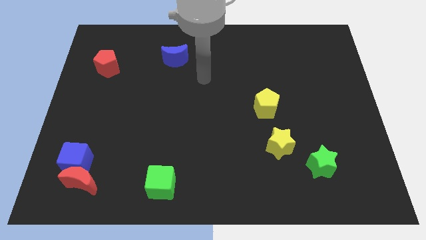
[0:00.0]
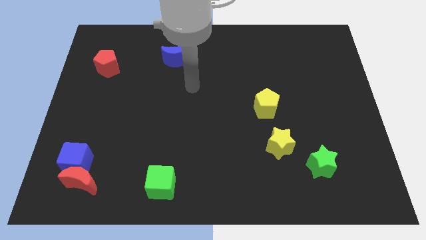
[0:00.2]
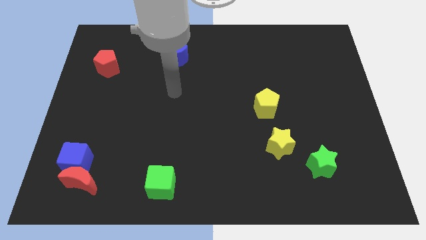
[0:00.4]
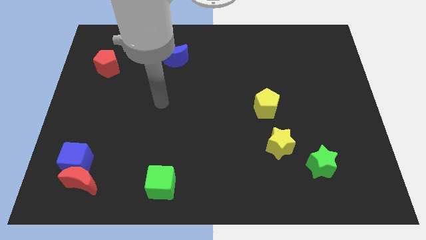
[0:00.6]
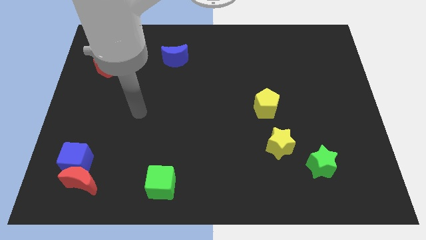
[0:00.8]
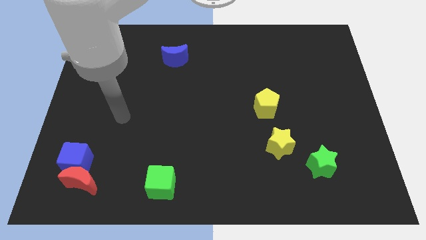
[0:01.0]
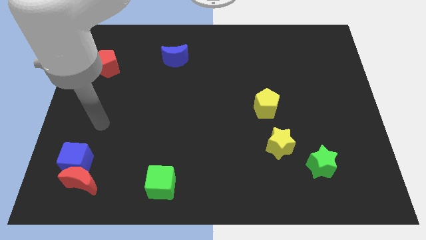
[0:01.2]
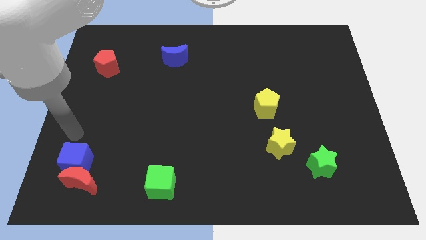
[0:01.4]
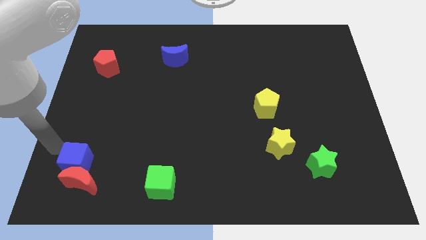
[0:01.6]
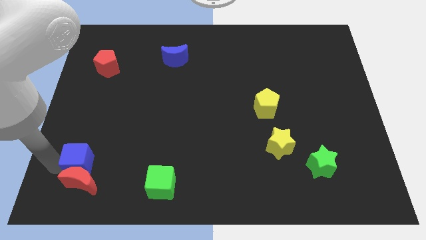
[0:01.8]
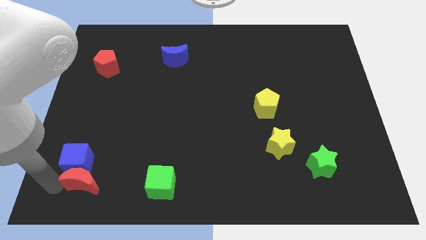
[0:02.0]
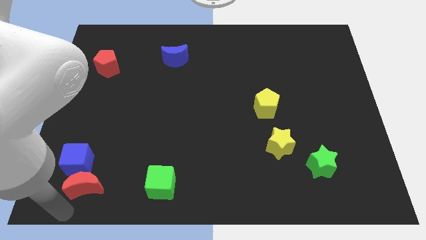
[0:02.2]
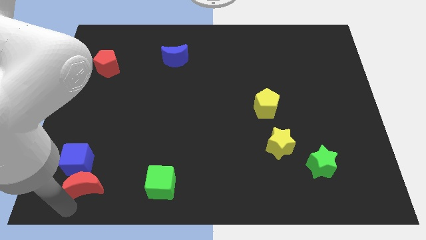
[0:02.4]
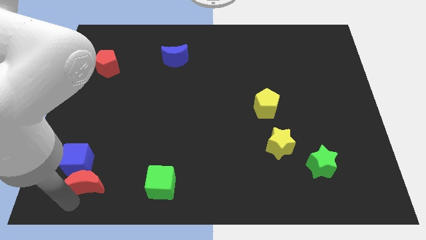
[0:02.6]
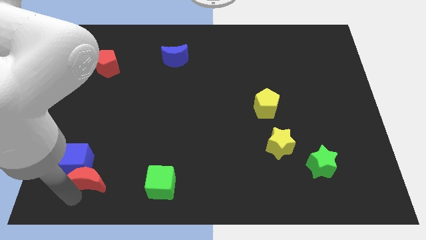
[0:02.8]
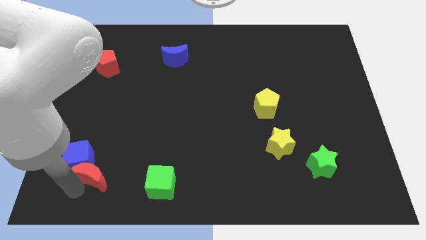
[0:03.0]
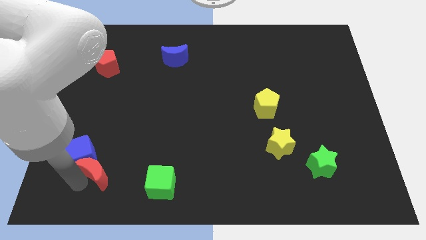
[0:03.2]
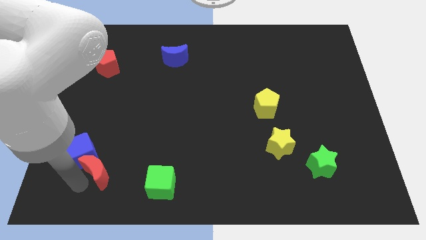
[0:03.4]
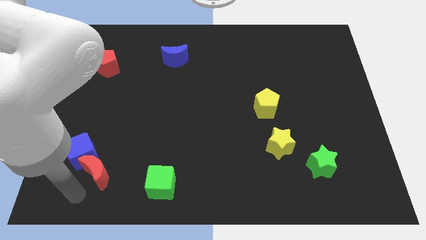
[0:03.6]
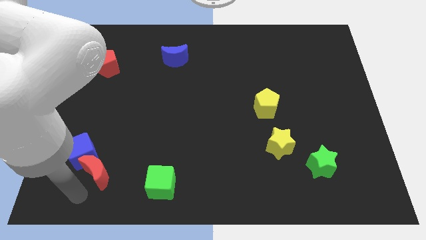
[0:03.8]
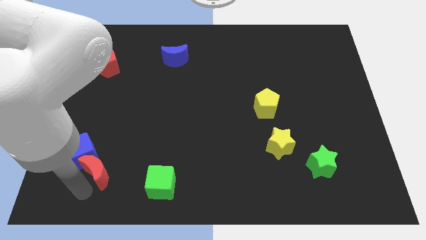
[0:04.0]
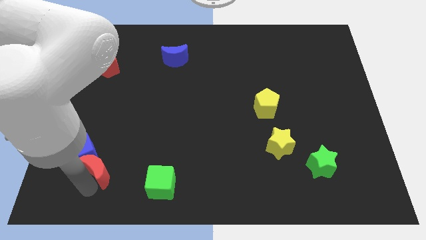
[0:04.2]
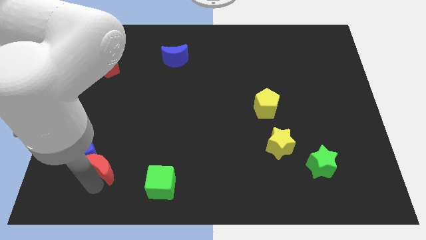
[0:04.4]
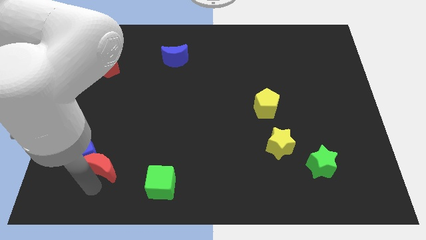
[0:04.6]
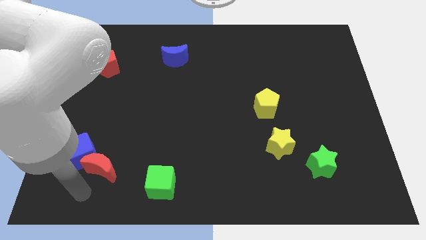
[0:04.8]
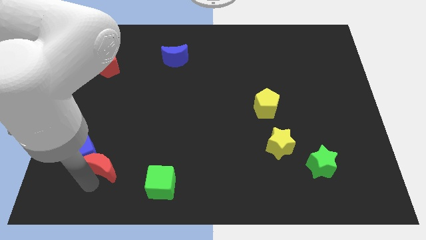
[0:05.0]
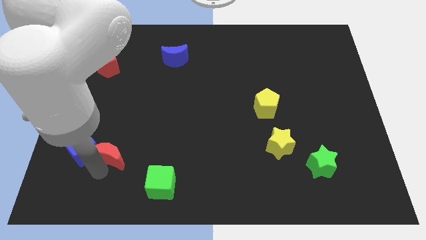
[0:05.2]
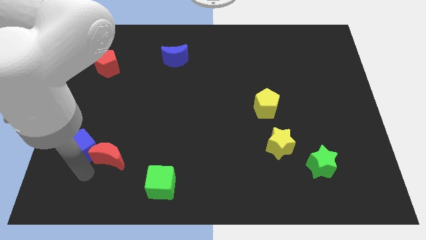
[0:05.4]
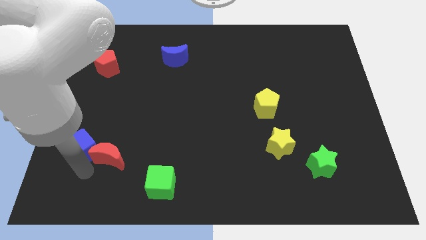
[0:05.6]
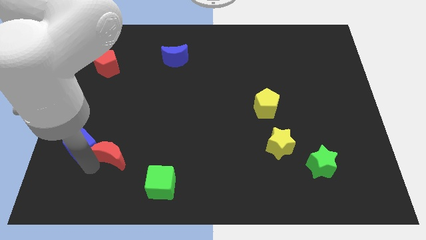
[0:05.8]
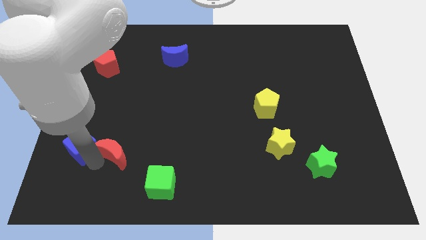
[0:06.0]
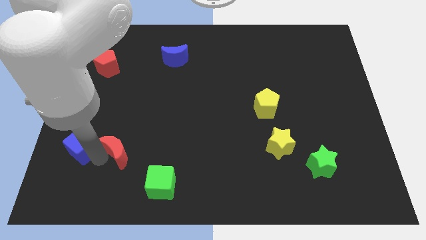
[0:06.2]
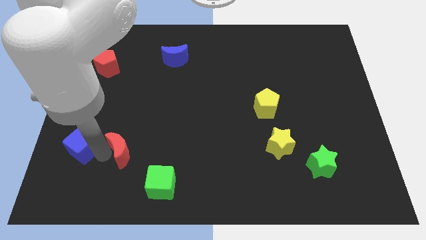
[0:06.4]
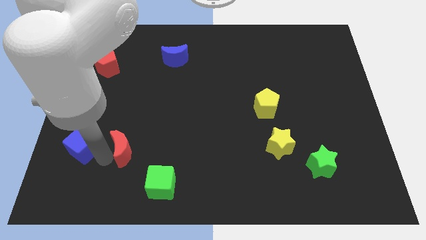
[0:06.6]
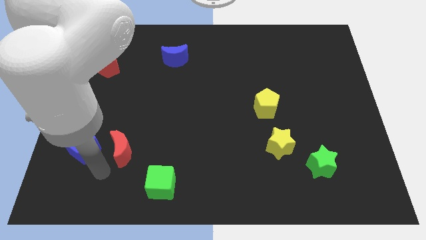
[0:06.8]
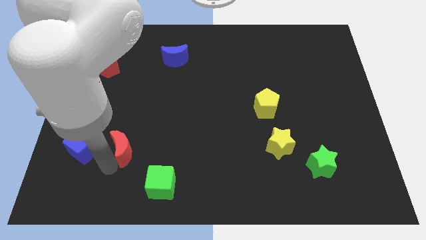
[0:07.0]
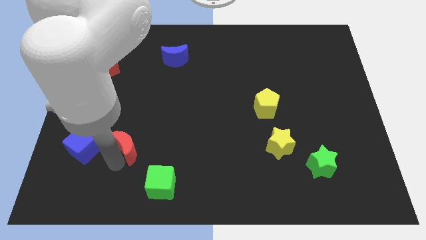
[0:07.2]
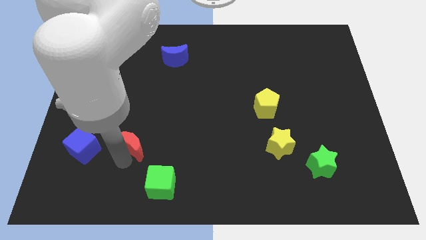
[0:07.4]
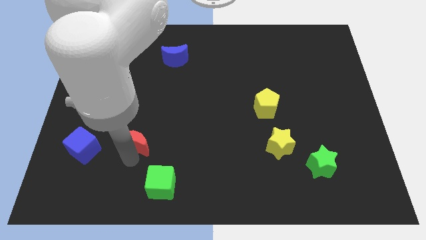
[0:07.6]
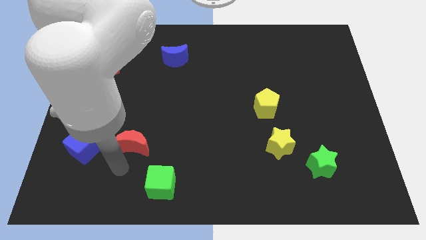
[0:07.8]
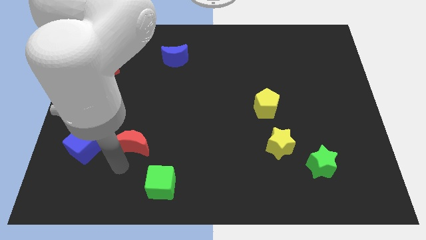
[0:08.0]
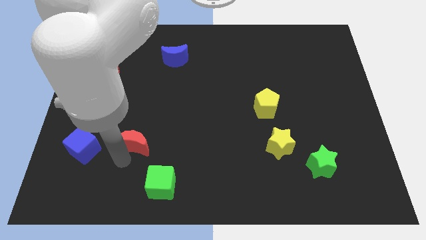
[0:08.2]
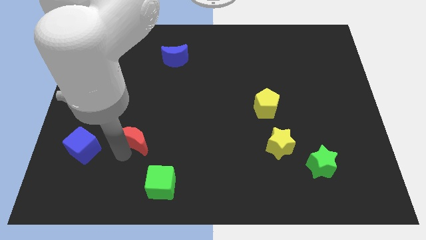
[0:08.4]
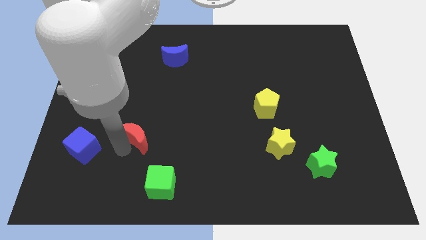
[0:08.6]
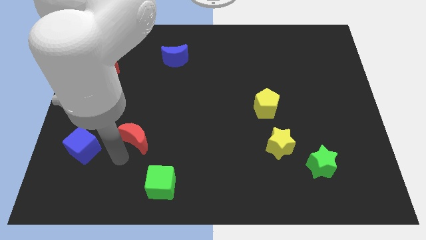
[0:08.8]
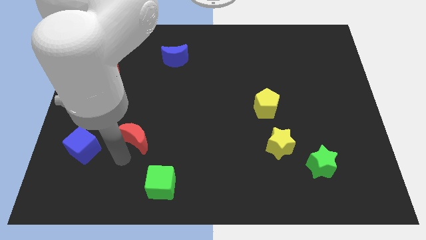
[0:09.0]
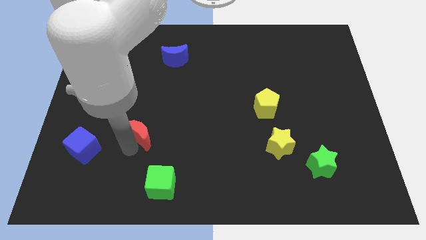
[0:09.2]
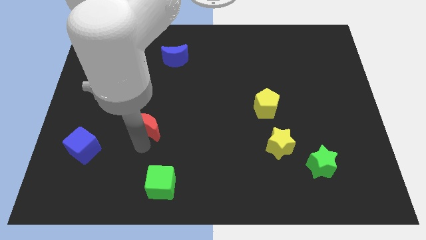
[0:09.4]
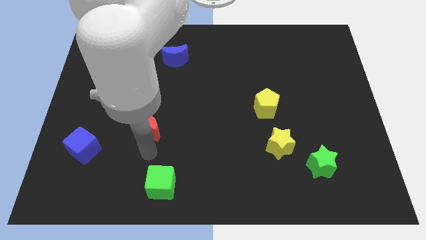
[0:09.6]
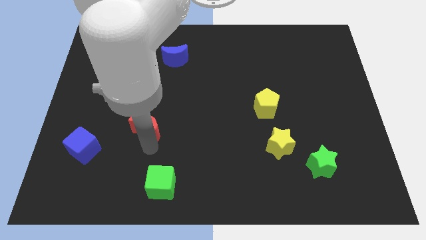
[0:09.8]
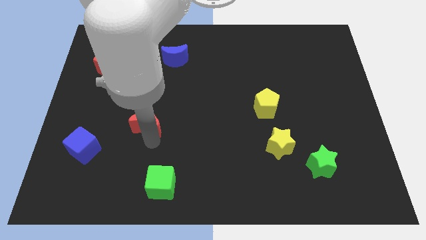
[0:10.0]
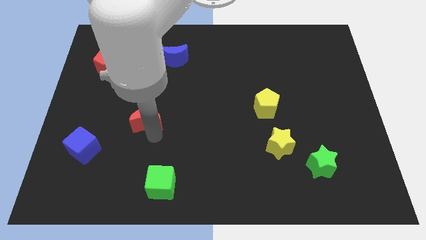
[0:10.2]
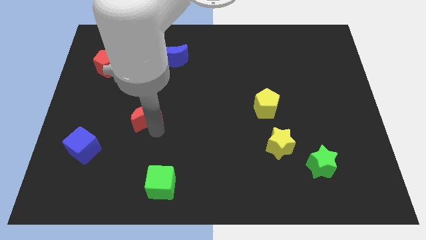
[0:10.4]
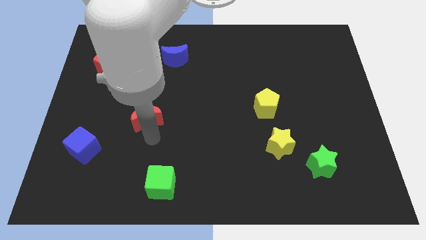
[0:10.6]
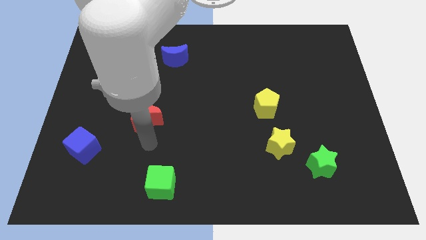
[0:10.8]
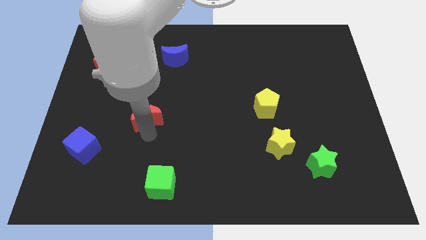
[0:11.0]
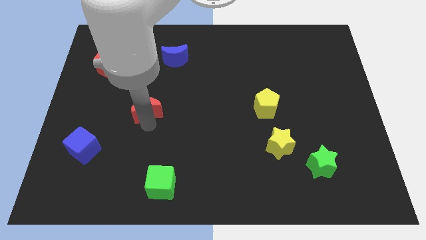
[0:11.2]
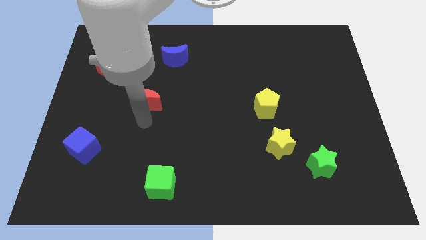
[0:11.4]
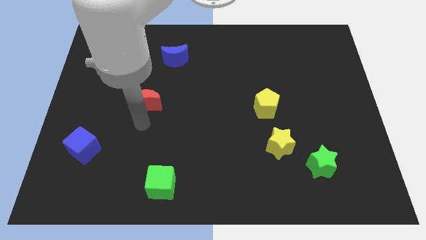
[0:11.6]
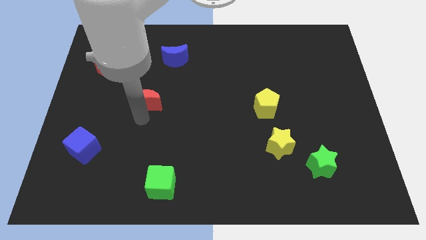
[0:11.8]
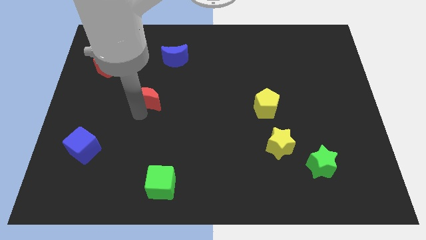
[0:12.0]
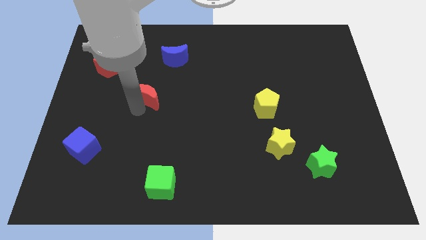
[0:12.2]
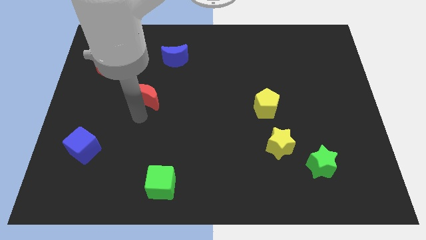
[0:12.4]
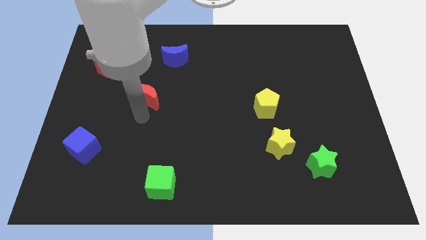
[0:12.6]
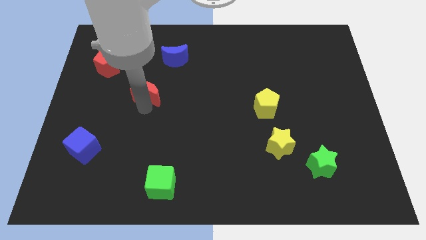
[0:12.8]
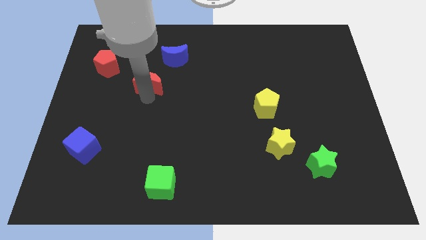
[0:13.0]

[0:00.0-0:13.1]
put the red moon diagonally down and to the left of the blue moon

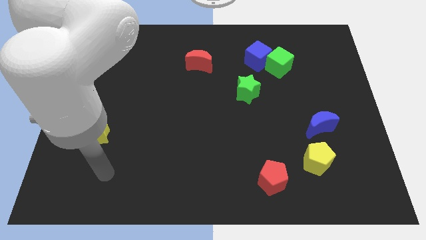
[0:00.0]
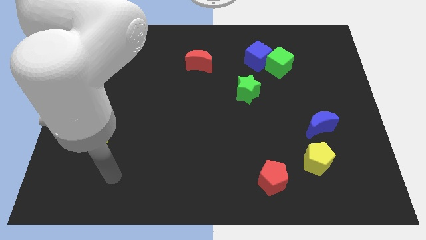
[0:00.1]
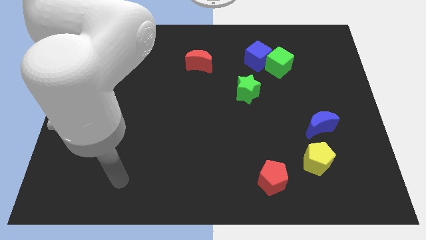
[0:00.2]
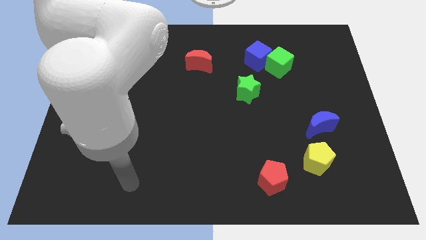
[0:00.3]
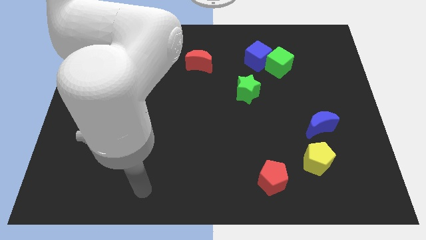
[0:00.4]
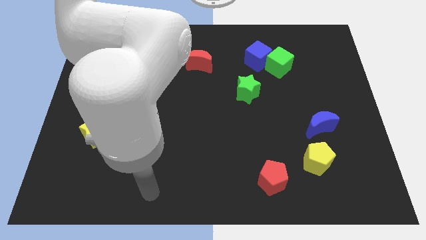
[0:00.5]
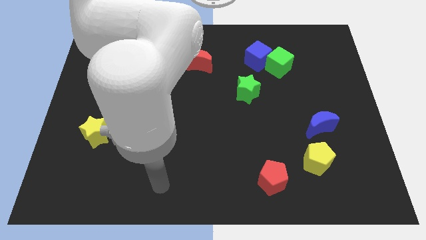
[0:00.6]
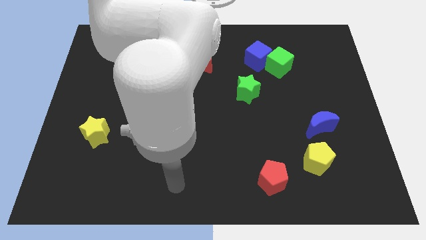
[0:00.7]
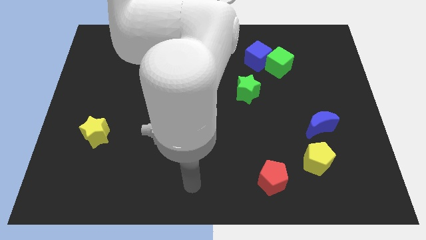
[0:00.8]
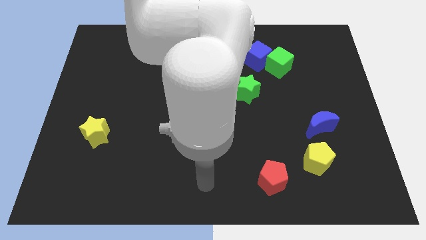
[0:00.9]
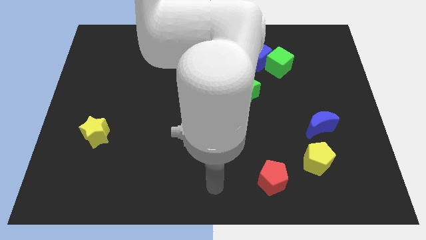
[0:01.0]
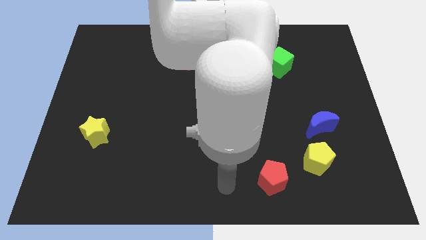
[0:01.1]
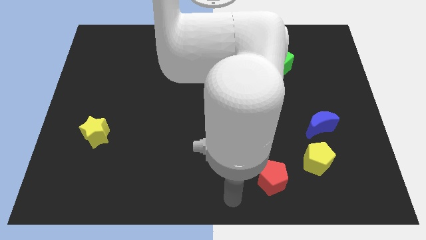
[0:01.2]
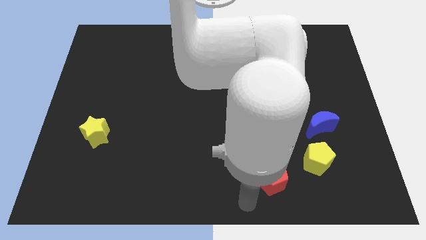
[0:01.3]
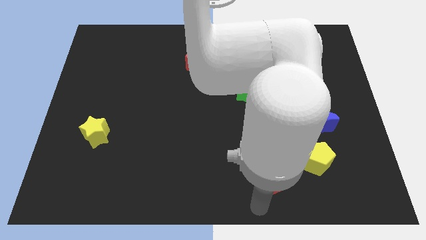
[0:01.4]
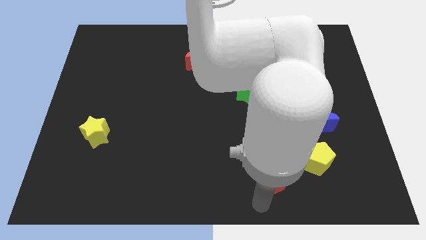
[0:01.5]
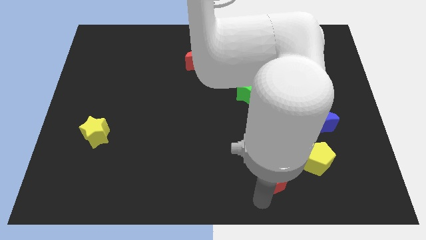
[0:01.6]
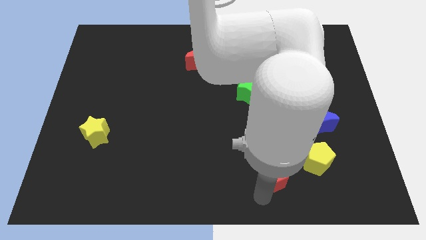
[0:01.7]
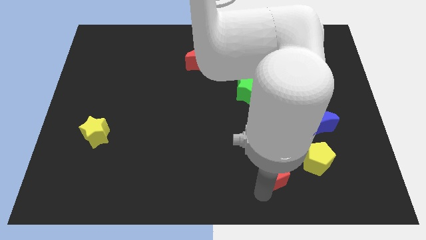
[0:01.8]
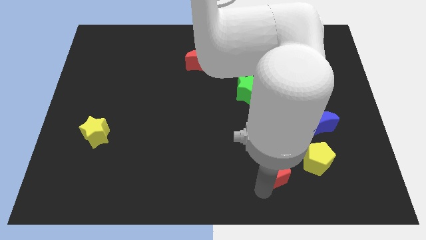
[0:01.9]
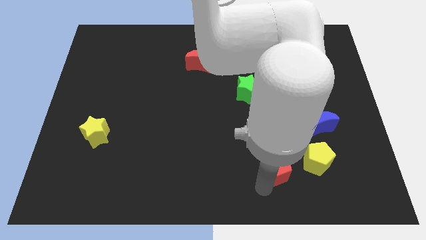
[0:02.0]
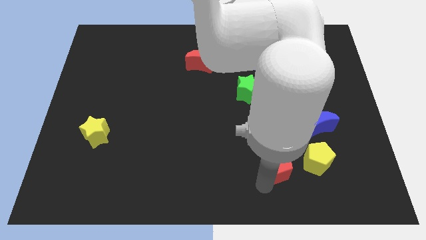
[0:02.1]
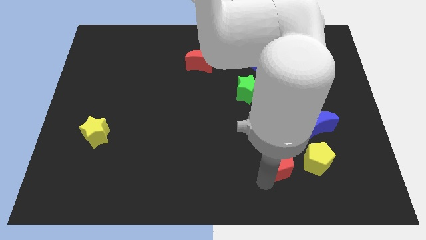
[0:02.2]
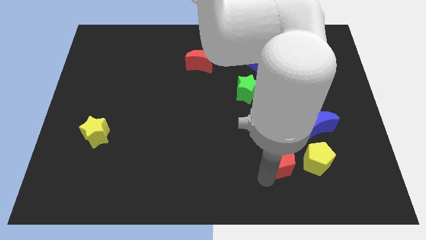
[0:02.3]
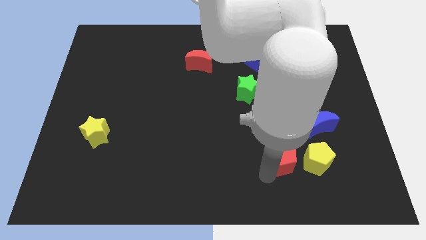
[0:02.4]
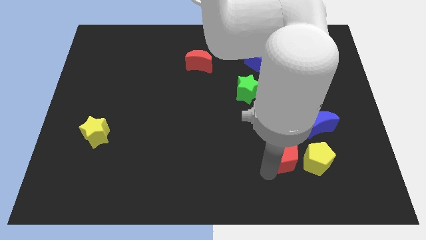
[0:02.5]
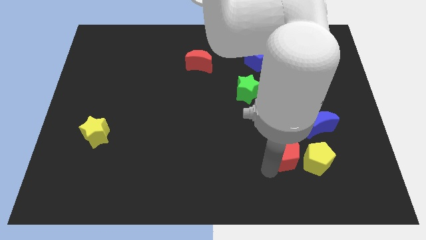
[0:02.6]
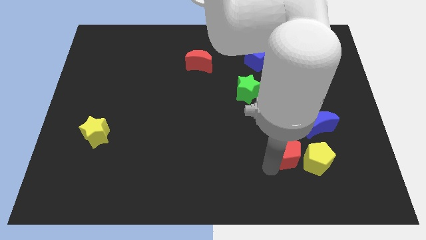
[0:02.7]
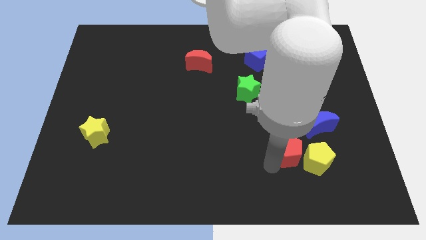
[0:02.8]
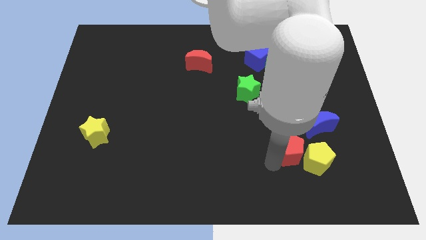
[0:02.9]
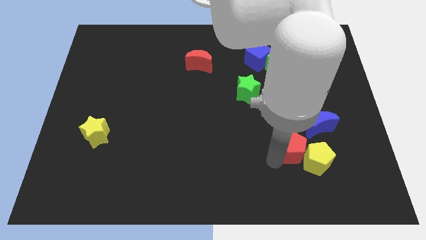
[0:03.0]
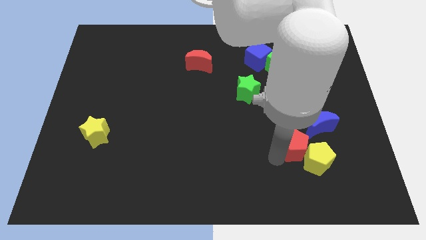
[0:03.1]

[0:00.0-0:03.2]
move the red pentagon to the top side of the yellow pentagon
